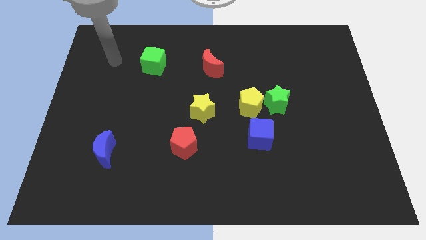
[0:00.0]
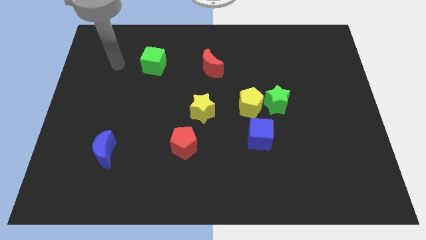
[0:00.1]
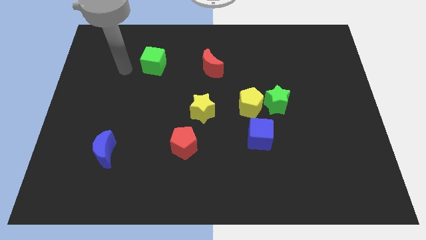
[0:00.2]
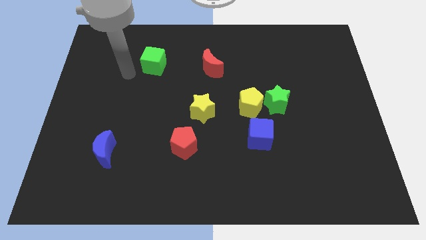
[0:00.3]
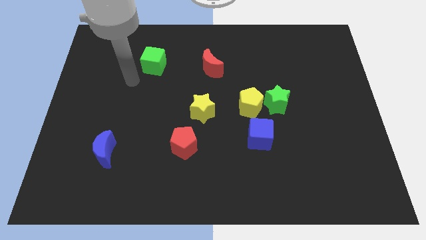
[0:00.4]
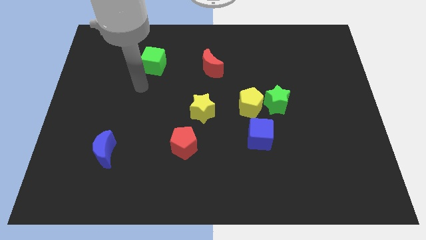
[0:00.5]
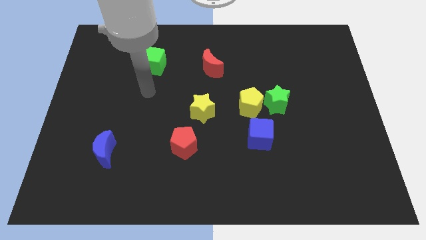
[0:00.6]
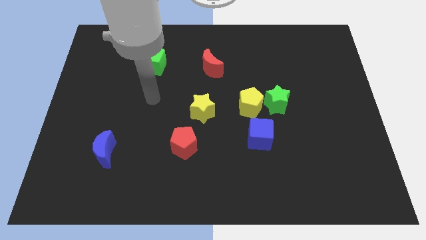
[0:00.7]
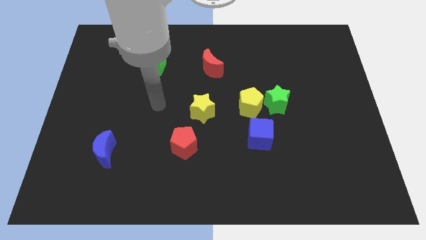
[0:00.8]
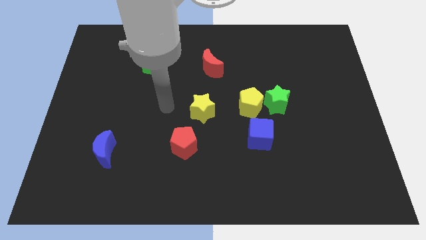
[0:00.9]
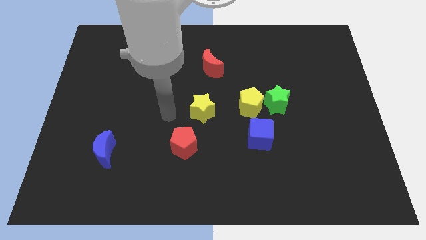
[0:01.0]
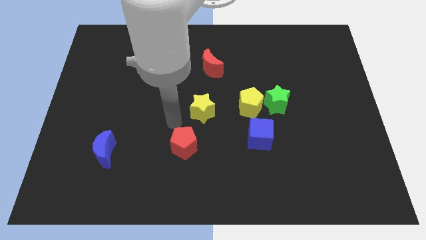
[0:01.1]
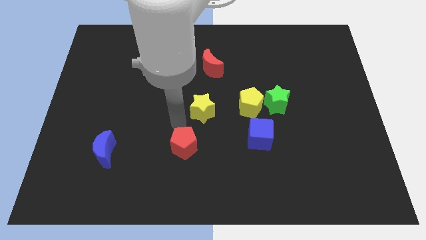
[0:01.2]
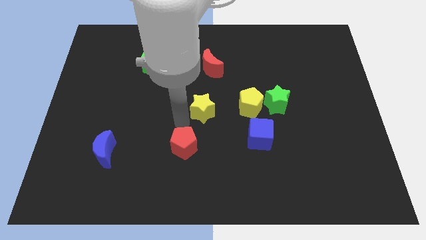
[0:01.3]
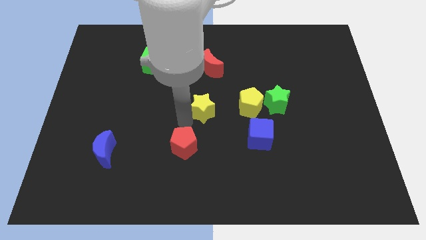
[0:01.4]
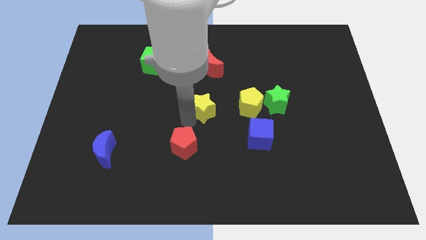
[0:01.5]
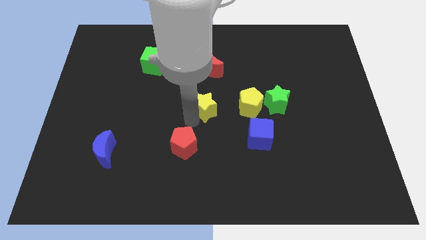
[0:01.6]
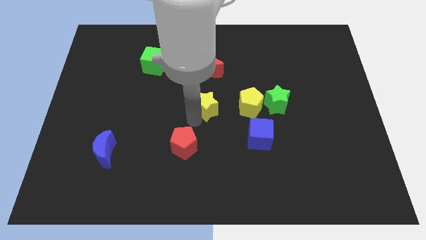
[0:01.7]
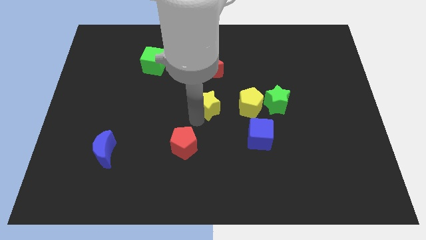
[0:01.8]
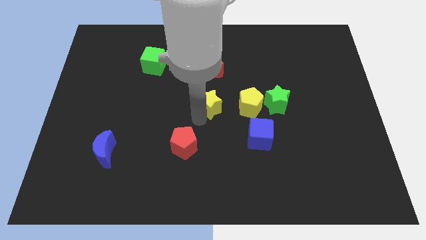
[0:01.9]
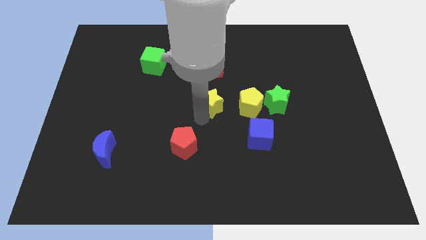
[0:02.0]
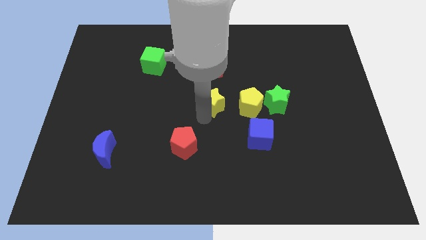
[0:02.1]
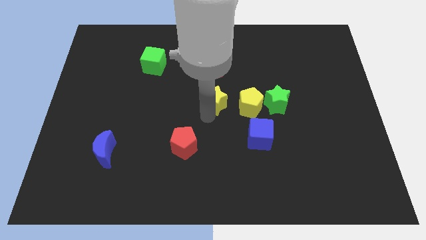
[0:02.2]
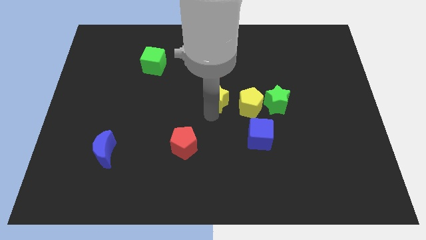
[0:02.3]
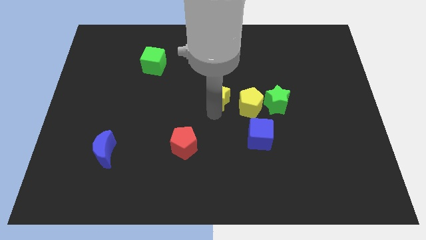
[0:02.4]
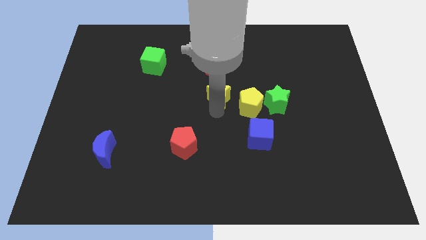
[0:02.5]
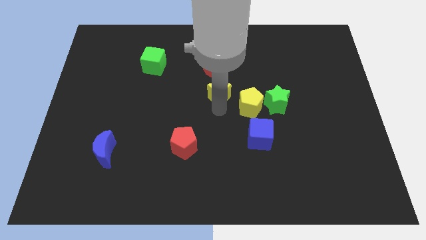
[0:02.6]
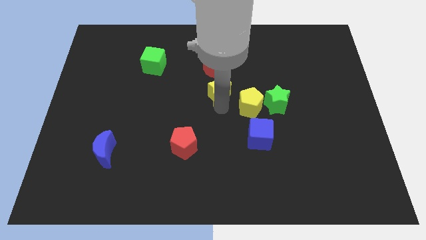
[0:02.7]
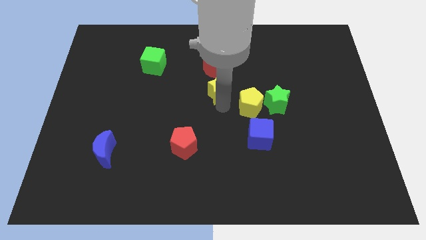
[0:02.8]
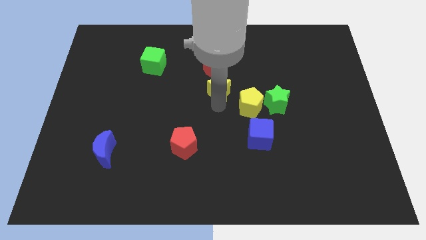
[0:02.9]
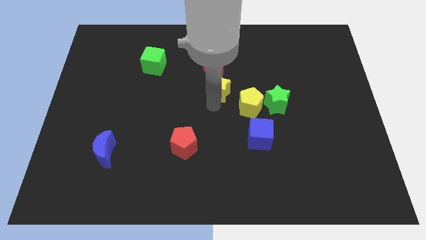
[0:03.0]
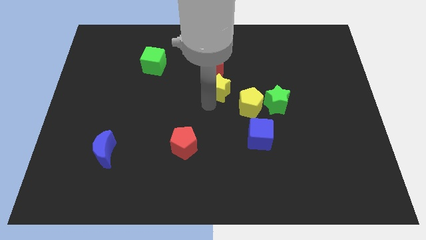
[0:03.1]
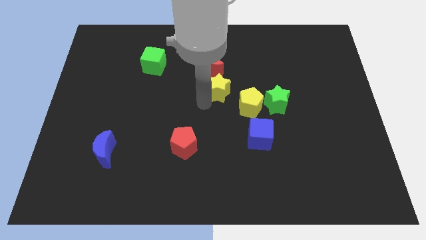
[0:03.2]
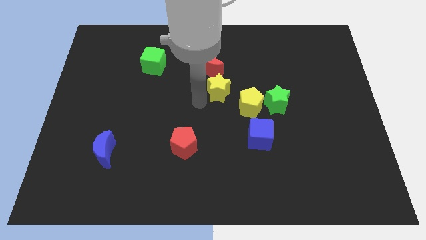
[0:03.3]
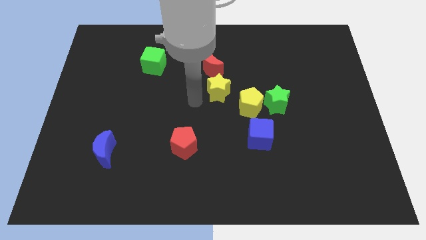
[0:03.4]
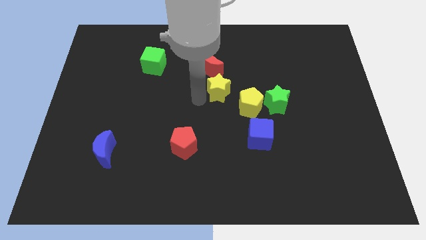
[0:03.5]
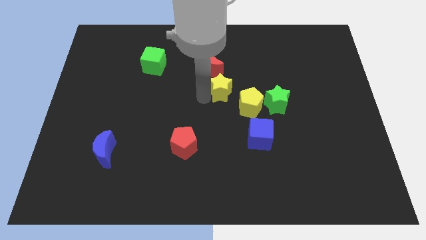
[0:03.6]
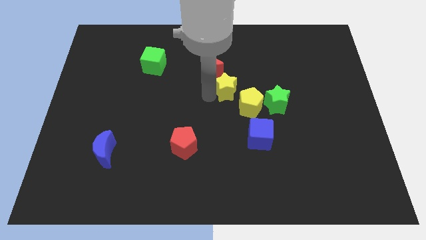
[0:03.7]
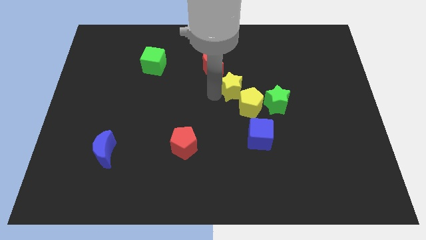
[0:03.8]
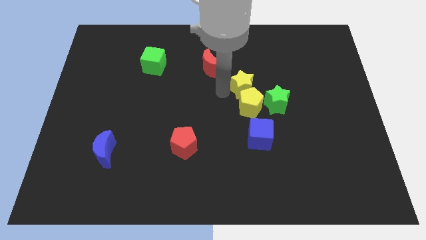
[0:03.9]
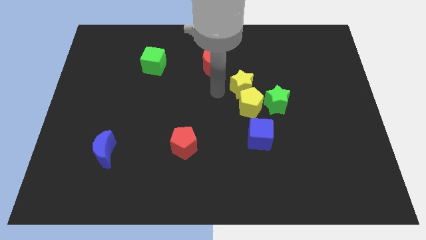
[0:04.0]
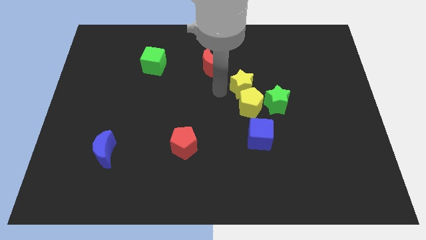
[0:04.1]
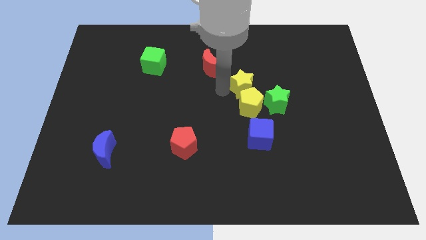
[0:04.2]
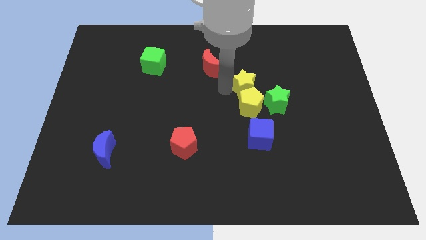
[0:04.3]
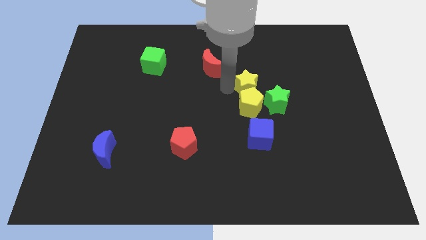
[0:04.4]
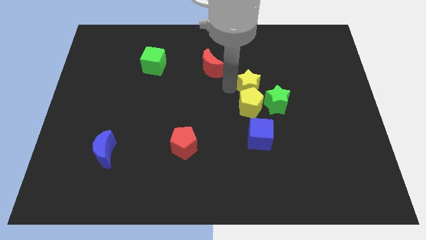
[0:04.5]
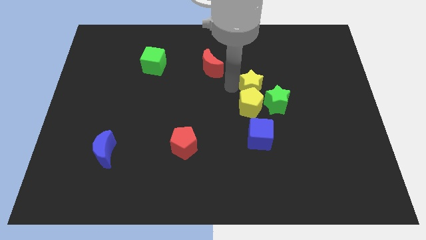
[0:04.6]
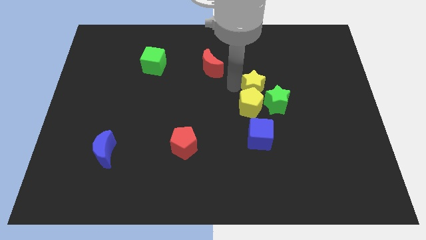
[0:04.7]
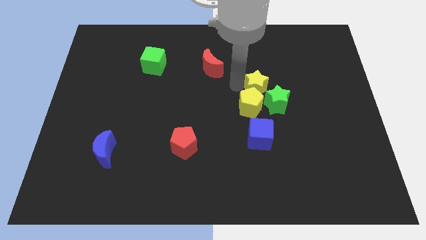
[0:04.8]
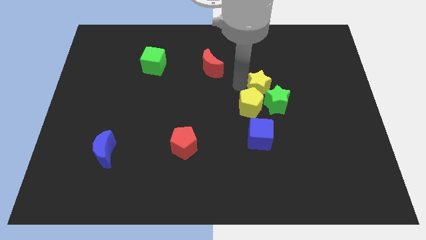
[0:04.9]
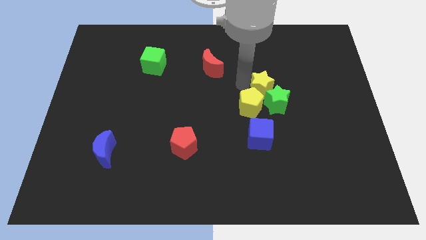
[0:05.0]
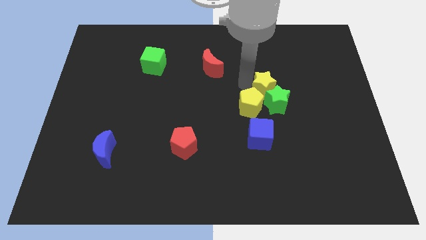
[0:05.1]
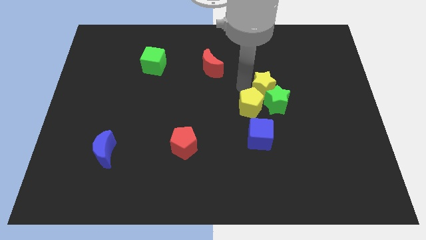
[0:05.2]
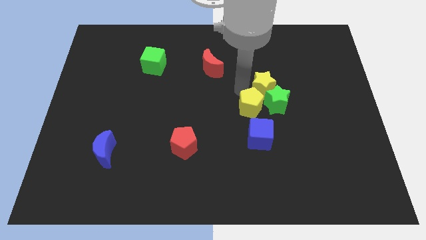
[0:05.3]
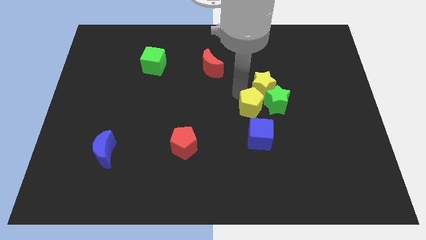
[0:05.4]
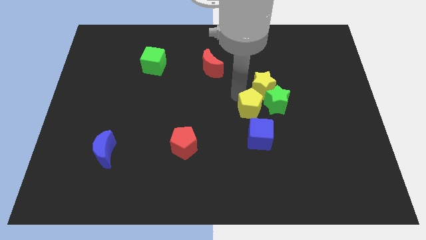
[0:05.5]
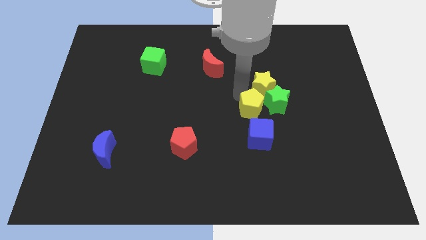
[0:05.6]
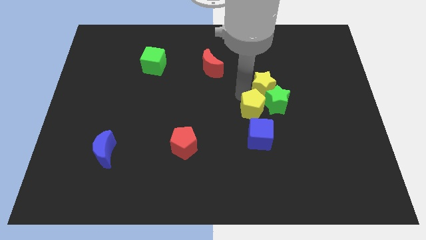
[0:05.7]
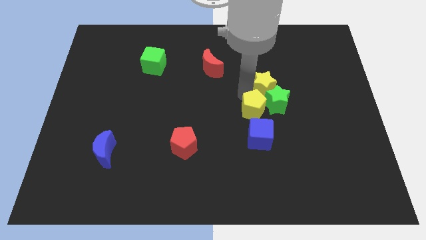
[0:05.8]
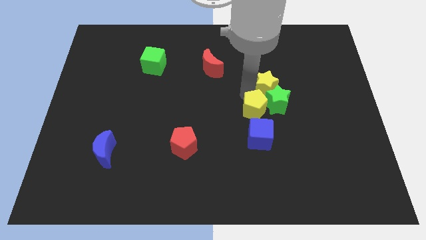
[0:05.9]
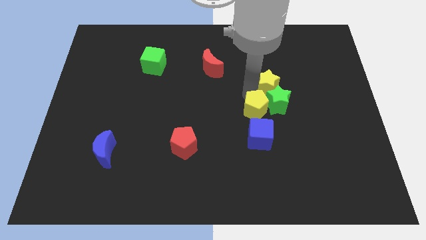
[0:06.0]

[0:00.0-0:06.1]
slide the yellow star to the top right side of the green star
